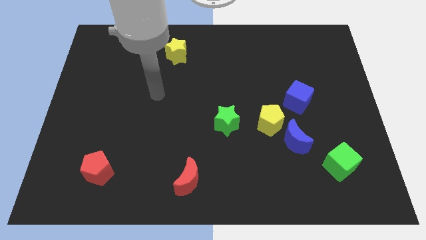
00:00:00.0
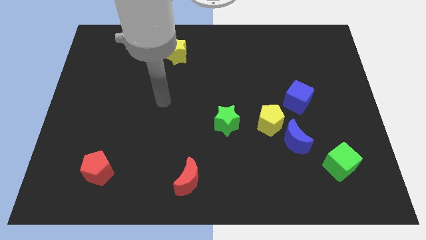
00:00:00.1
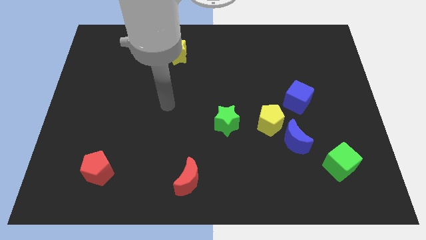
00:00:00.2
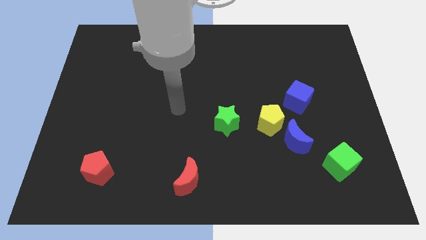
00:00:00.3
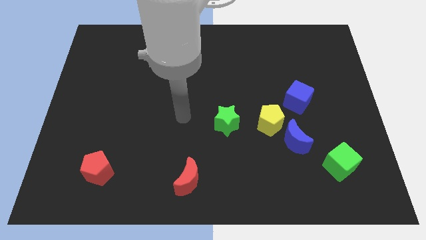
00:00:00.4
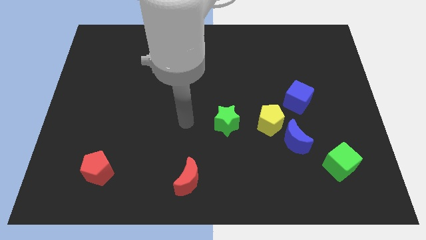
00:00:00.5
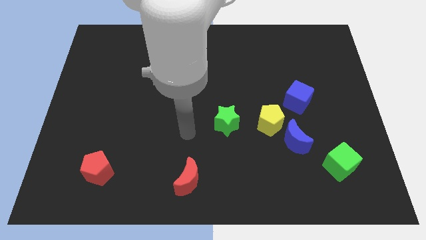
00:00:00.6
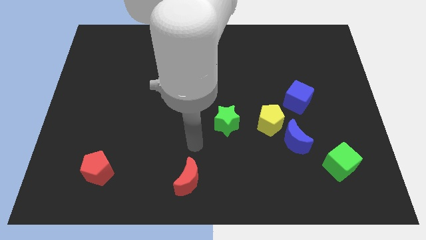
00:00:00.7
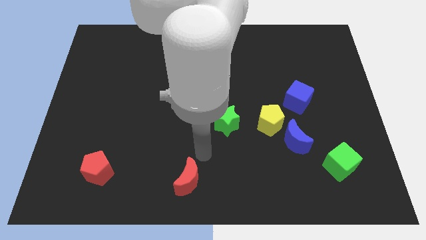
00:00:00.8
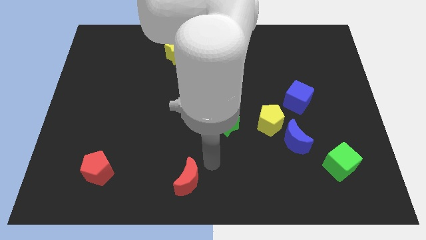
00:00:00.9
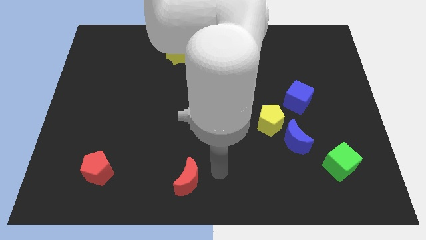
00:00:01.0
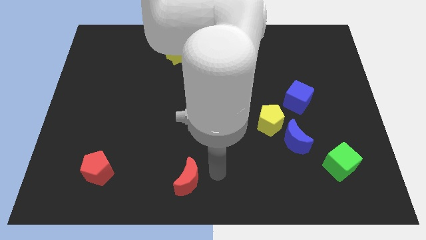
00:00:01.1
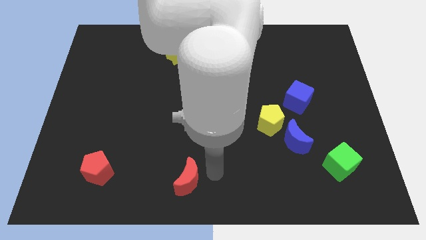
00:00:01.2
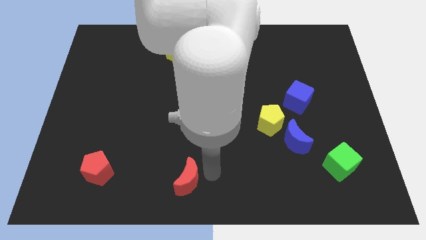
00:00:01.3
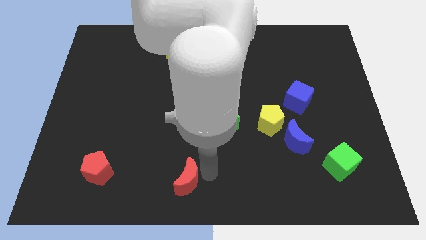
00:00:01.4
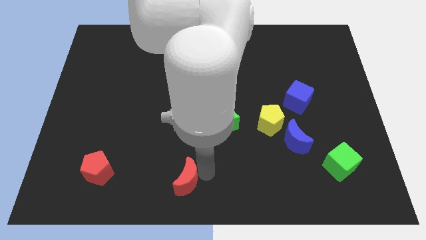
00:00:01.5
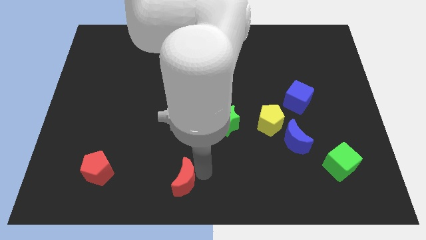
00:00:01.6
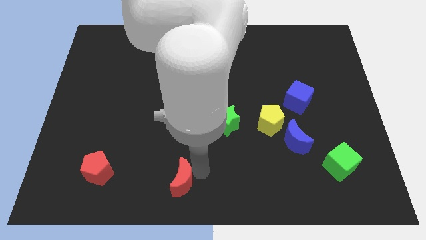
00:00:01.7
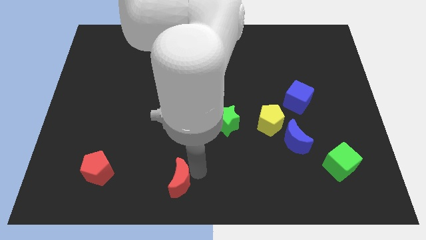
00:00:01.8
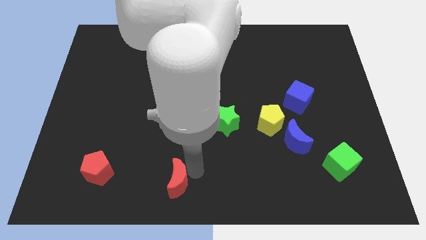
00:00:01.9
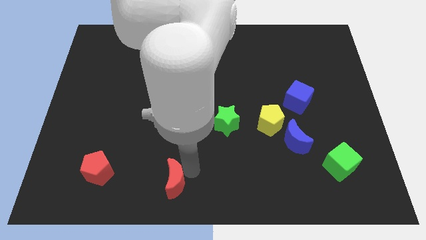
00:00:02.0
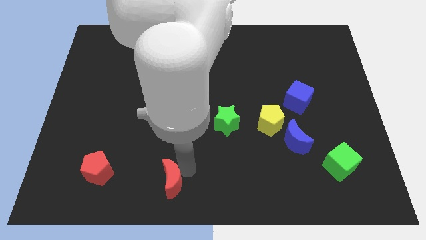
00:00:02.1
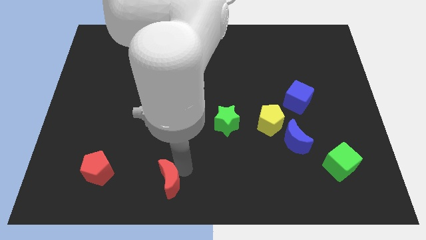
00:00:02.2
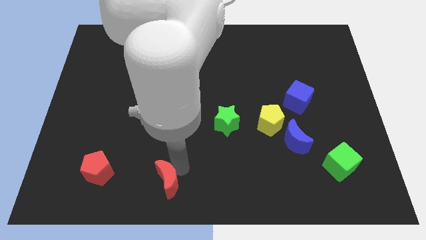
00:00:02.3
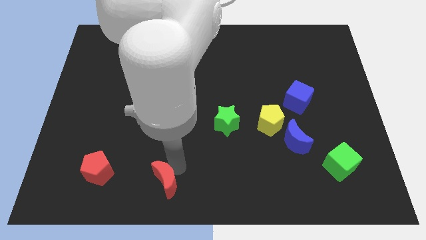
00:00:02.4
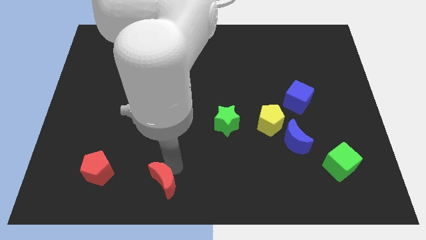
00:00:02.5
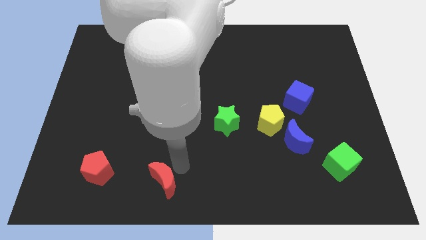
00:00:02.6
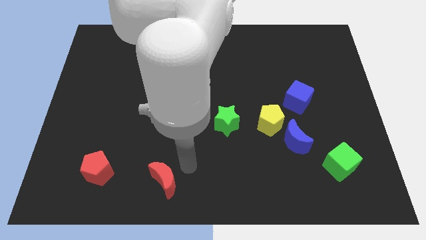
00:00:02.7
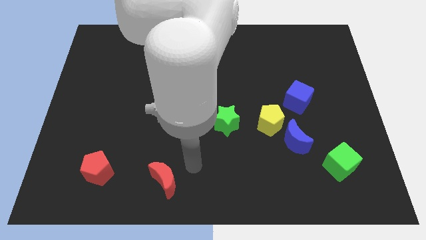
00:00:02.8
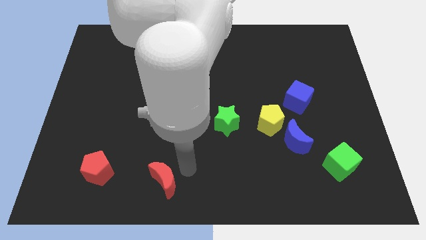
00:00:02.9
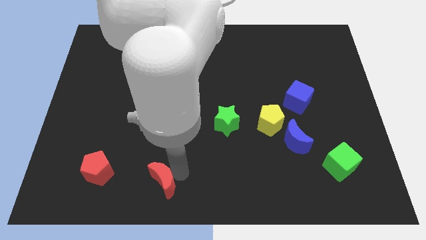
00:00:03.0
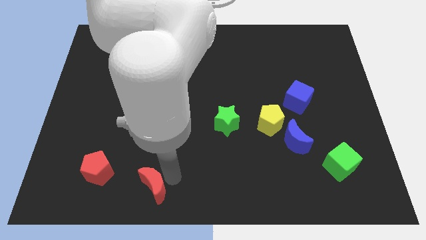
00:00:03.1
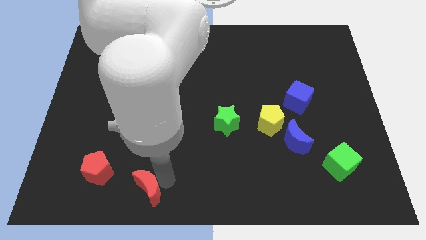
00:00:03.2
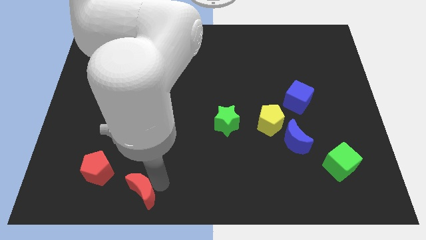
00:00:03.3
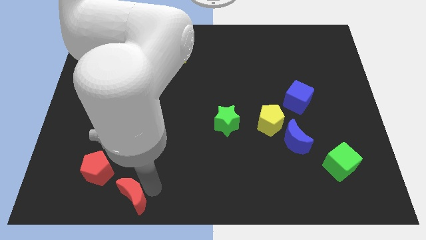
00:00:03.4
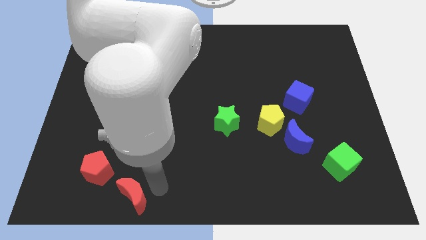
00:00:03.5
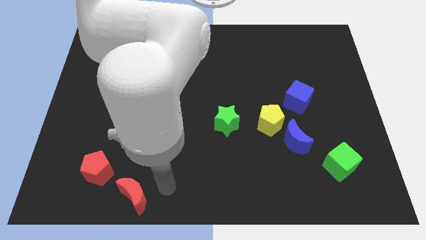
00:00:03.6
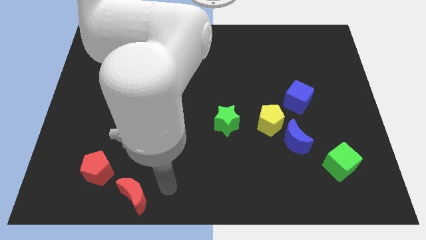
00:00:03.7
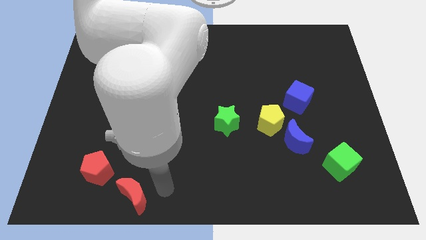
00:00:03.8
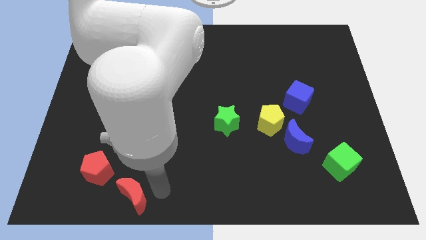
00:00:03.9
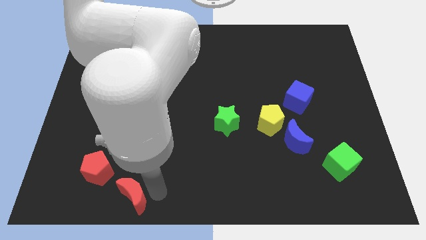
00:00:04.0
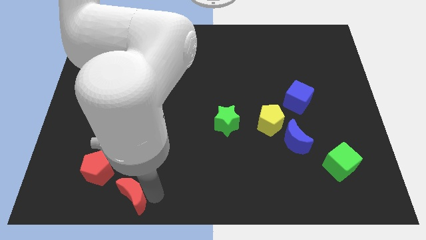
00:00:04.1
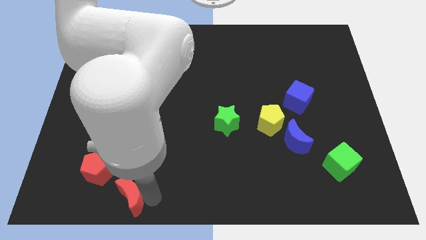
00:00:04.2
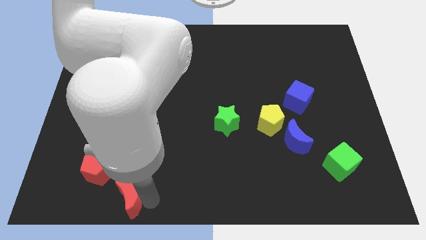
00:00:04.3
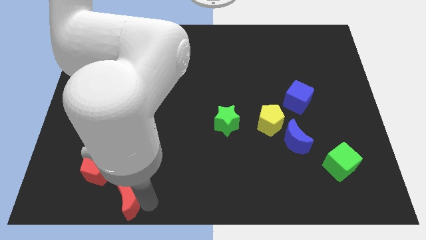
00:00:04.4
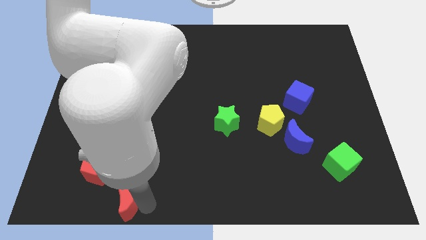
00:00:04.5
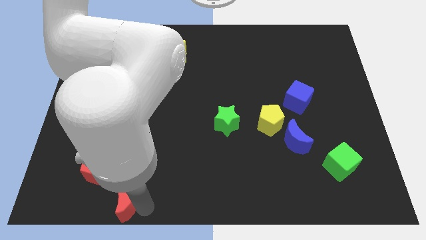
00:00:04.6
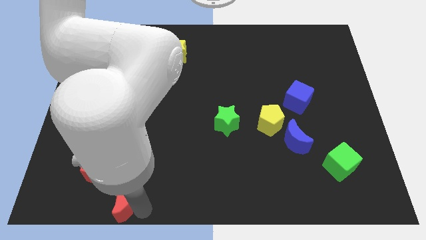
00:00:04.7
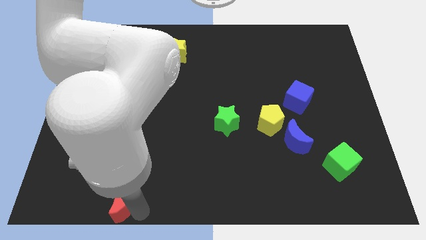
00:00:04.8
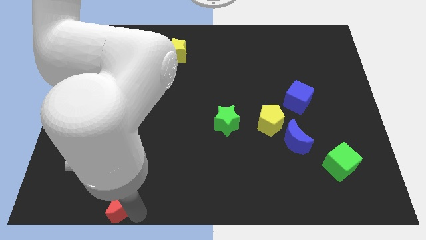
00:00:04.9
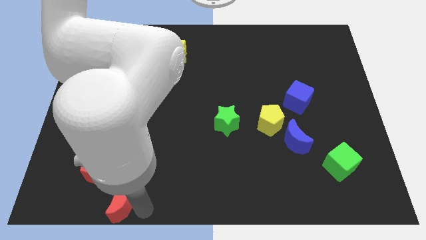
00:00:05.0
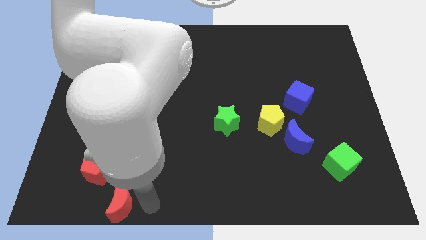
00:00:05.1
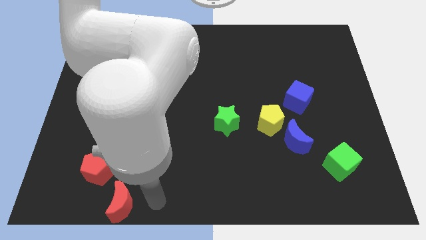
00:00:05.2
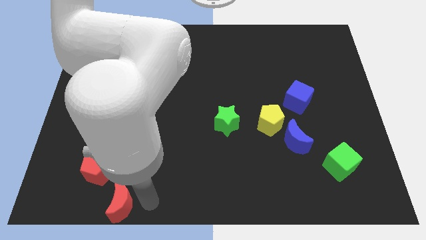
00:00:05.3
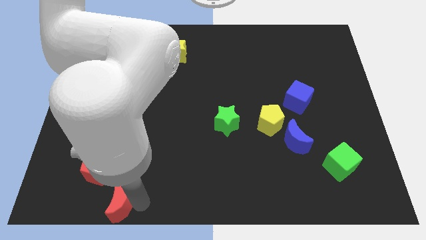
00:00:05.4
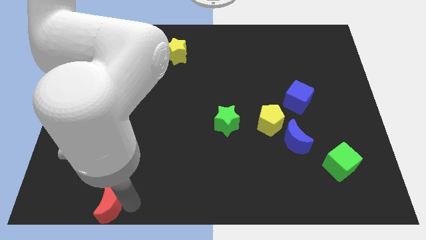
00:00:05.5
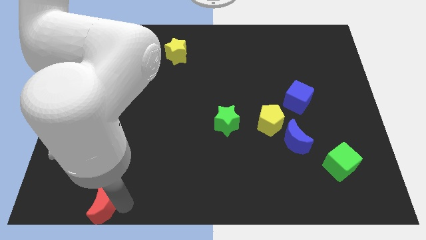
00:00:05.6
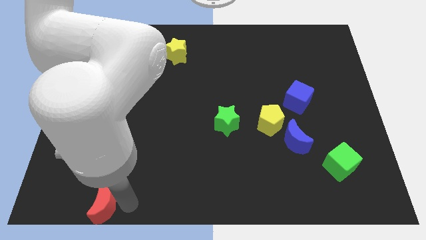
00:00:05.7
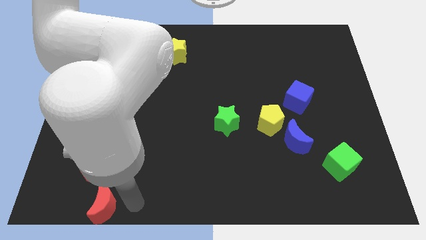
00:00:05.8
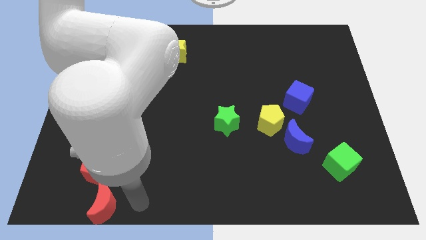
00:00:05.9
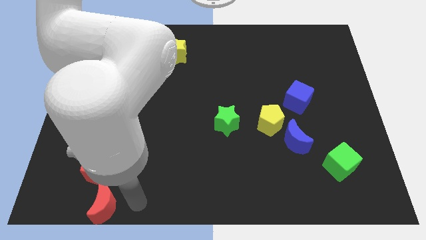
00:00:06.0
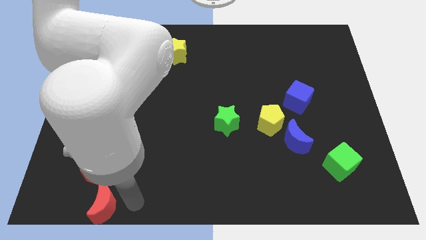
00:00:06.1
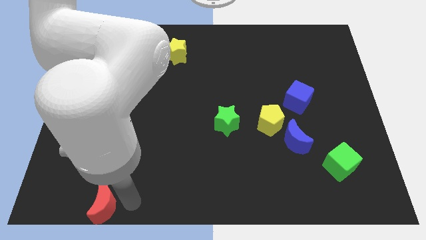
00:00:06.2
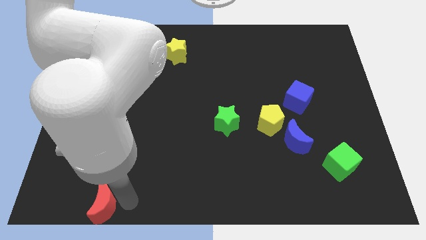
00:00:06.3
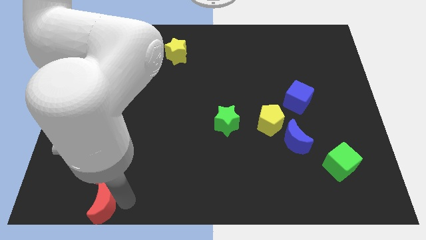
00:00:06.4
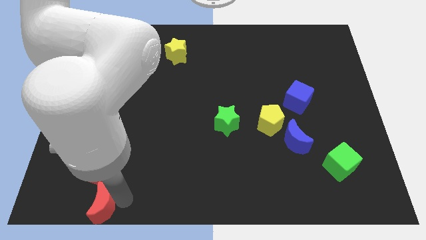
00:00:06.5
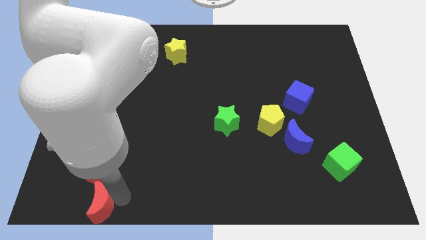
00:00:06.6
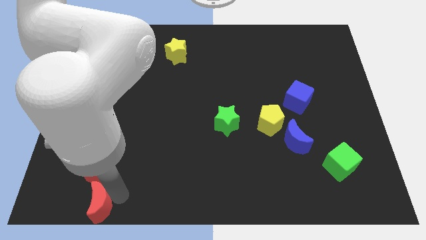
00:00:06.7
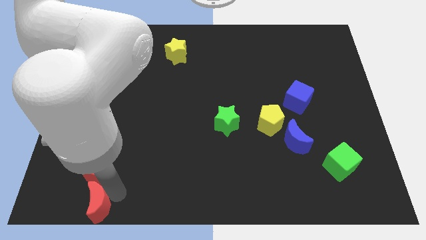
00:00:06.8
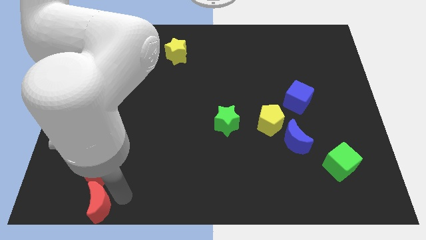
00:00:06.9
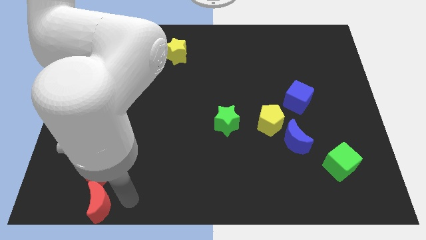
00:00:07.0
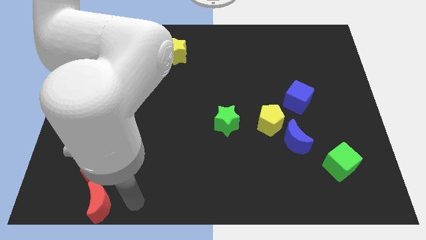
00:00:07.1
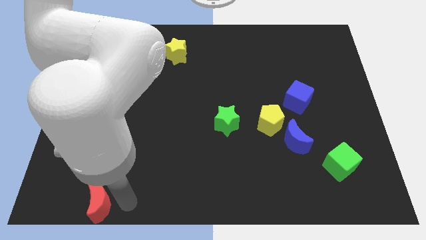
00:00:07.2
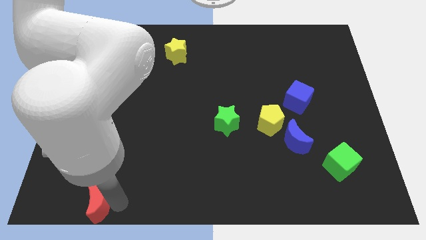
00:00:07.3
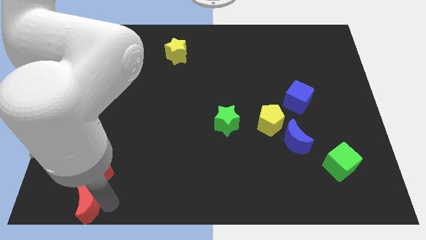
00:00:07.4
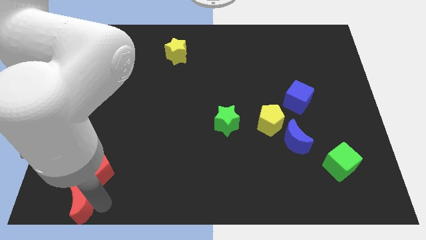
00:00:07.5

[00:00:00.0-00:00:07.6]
push the red moon to the lower left corner
